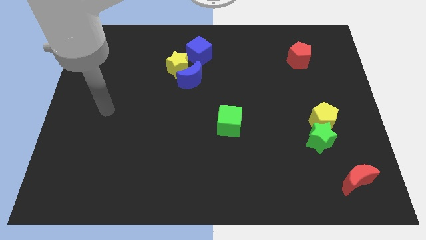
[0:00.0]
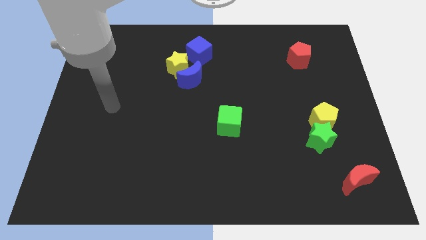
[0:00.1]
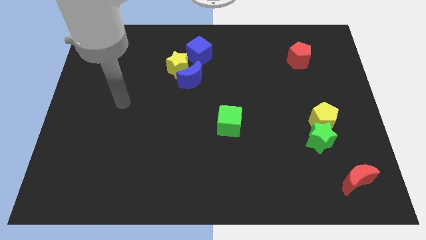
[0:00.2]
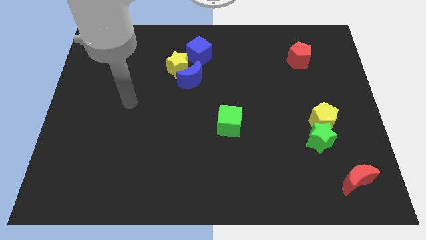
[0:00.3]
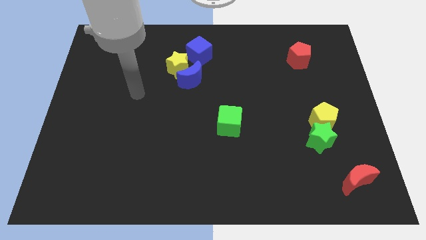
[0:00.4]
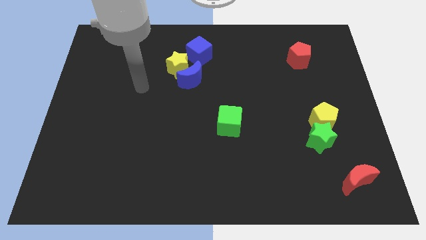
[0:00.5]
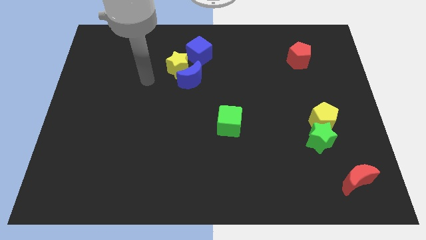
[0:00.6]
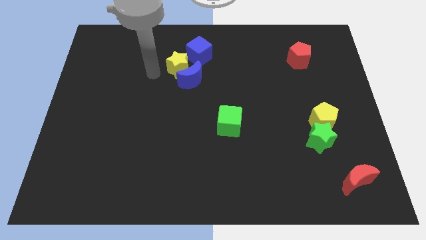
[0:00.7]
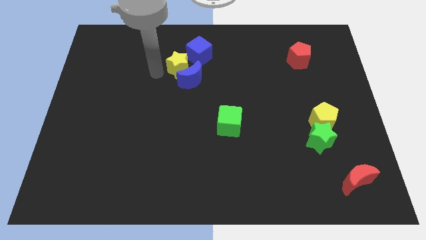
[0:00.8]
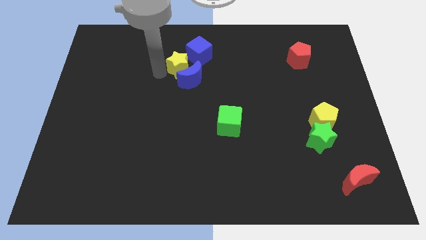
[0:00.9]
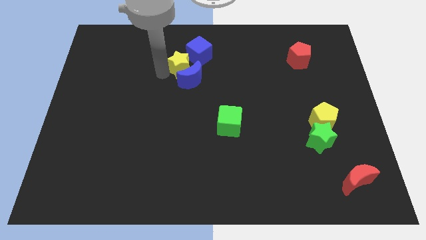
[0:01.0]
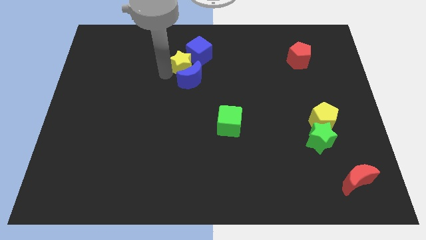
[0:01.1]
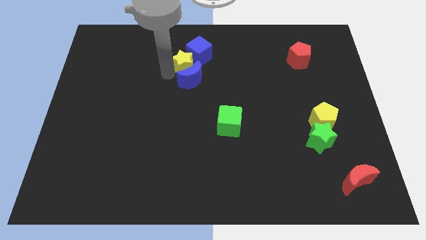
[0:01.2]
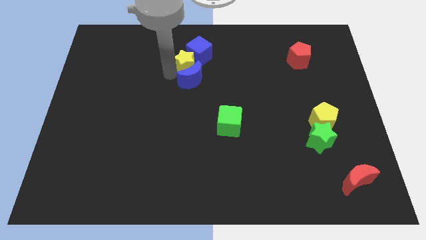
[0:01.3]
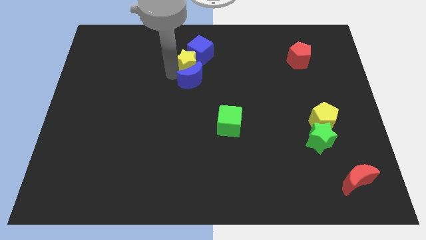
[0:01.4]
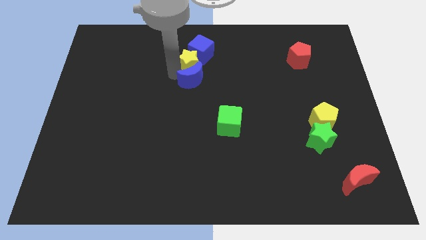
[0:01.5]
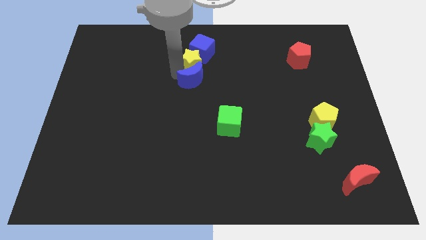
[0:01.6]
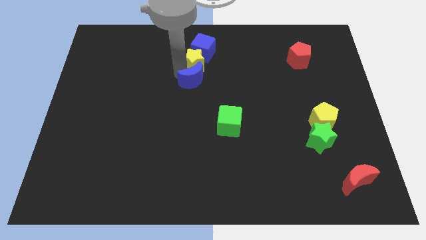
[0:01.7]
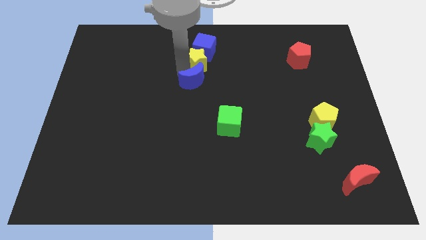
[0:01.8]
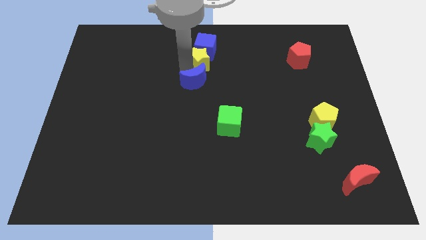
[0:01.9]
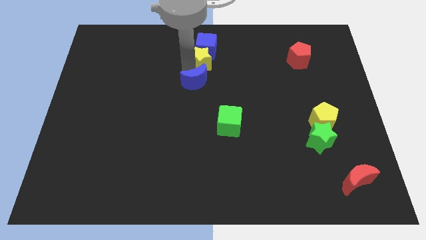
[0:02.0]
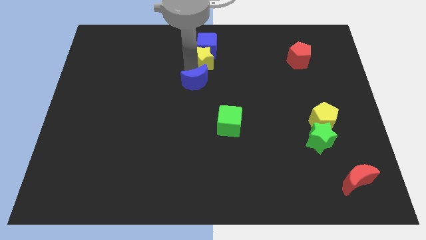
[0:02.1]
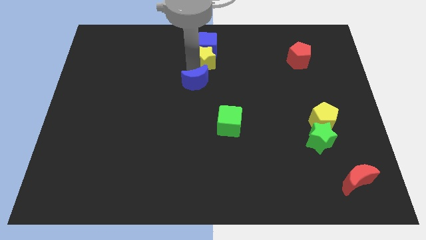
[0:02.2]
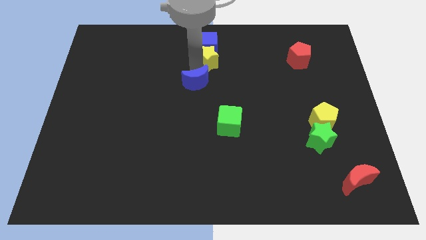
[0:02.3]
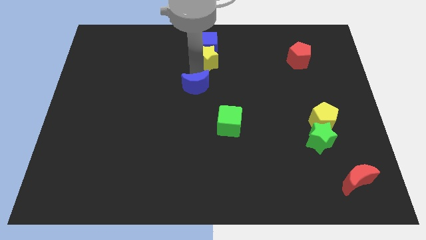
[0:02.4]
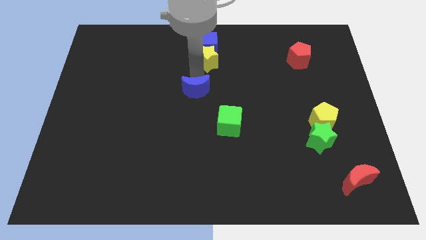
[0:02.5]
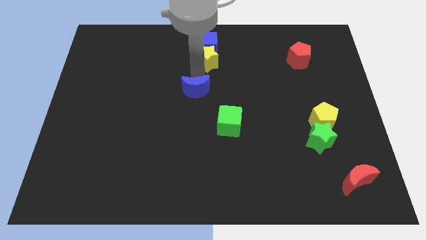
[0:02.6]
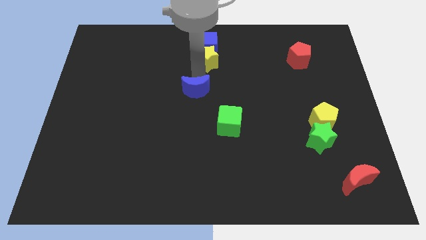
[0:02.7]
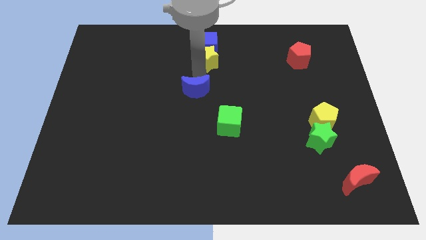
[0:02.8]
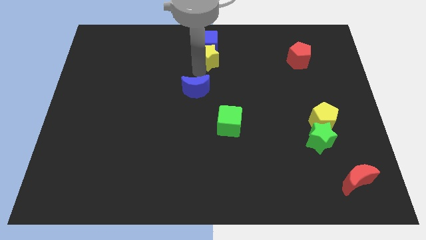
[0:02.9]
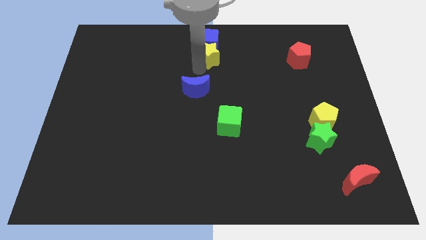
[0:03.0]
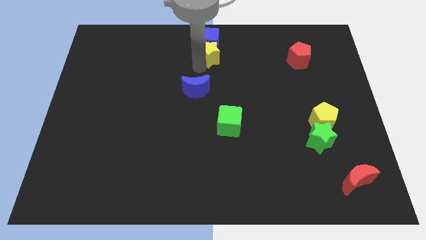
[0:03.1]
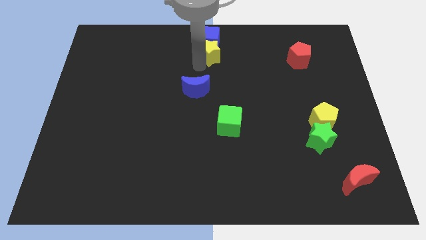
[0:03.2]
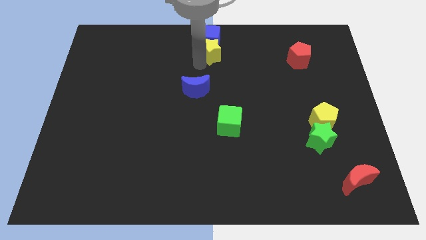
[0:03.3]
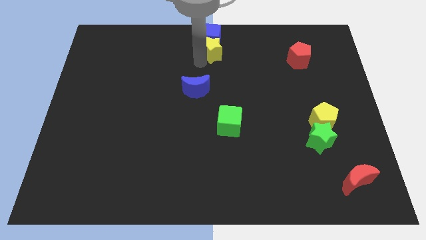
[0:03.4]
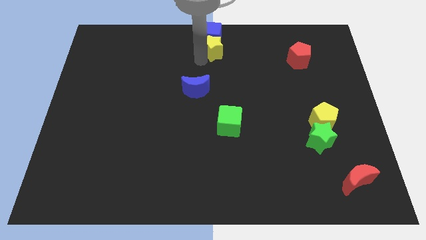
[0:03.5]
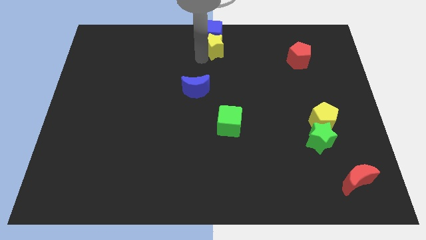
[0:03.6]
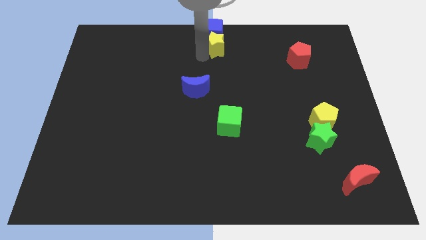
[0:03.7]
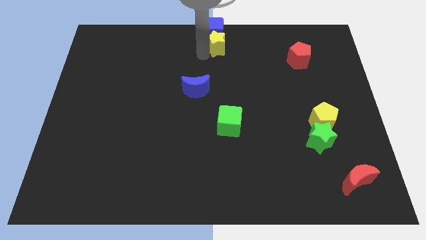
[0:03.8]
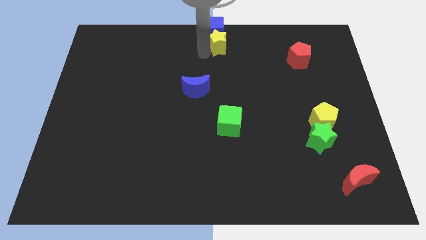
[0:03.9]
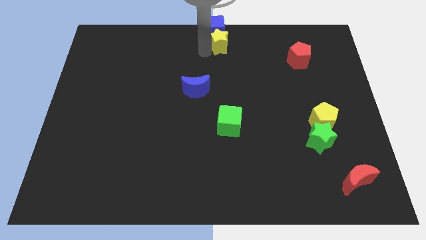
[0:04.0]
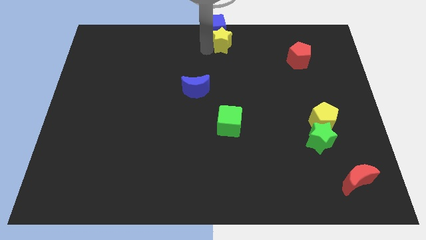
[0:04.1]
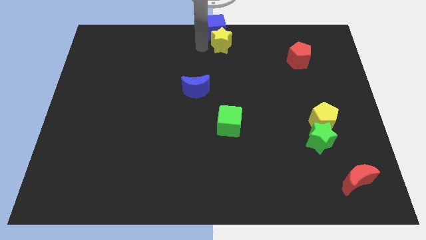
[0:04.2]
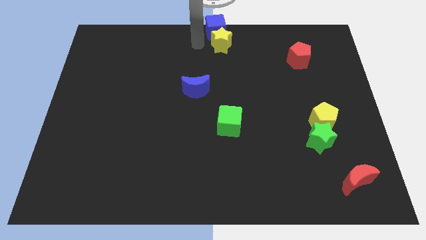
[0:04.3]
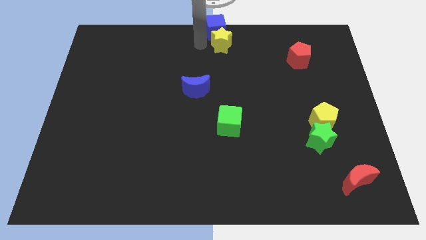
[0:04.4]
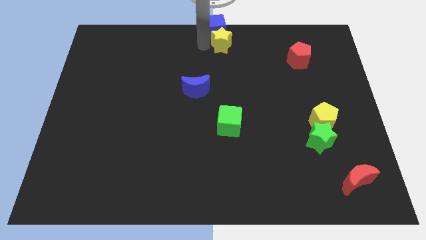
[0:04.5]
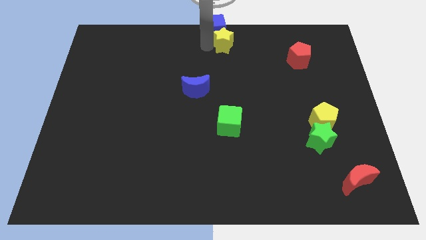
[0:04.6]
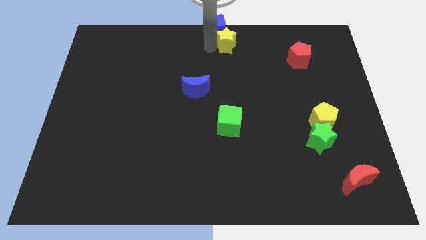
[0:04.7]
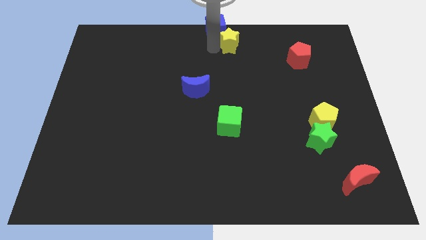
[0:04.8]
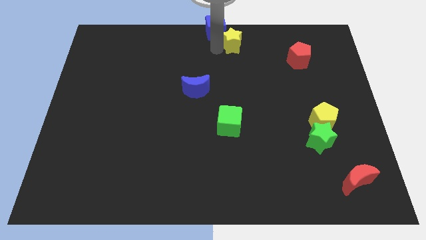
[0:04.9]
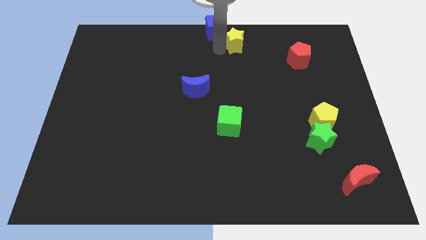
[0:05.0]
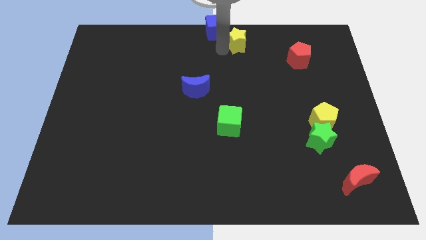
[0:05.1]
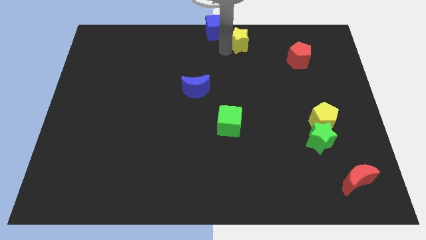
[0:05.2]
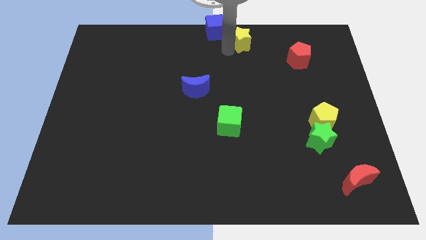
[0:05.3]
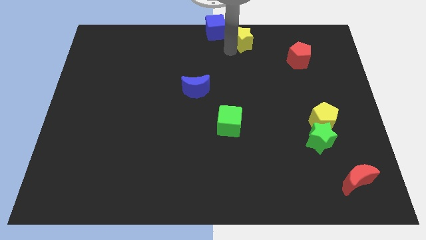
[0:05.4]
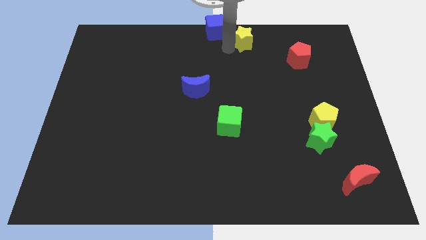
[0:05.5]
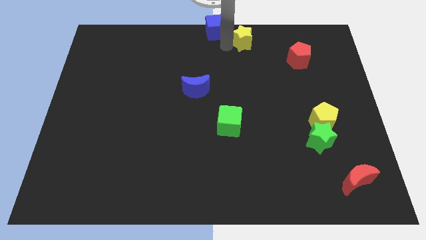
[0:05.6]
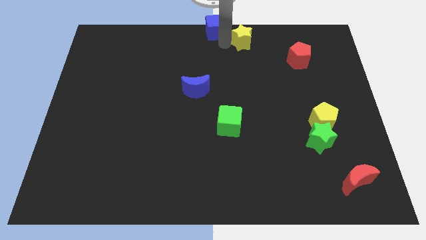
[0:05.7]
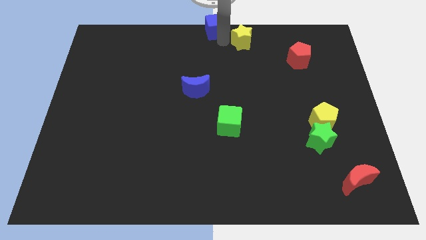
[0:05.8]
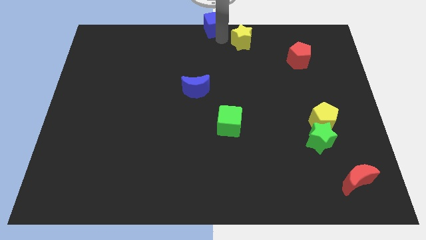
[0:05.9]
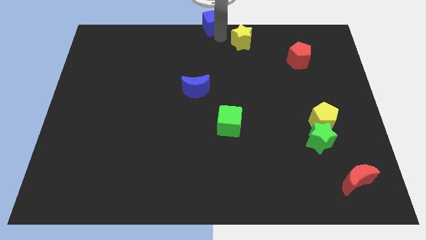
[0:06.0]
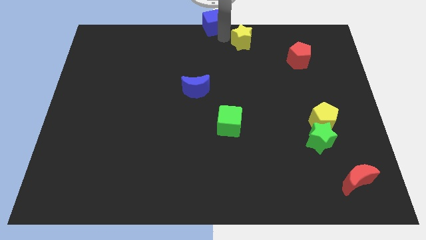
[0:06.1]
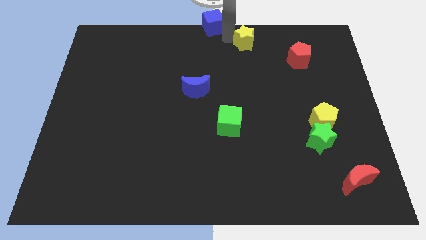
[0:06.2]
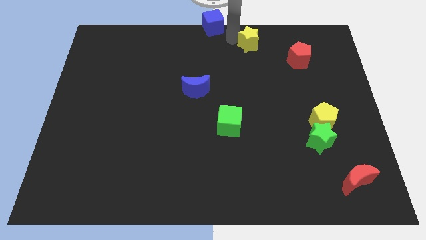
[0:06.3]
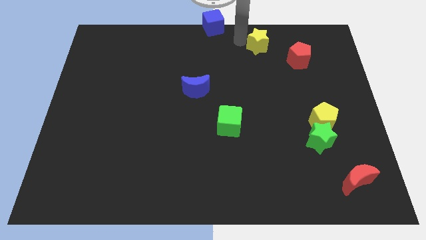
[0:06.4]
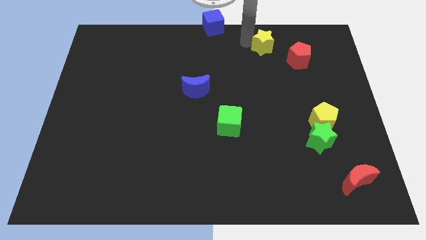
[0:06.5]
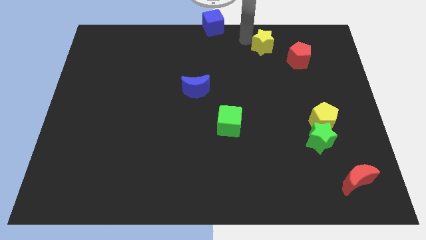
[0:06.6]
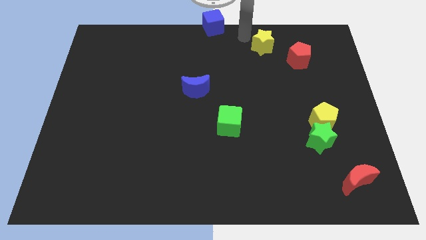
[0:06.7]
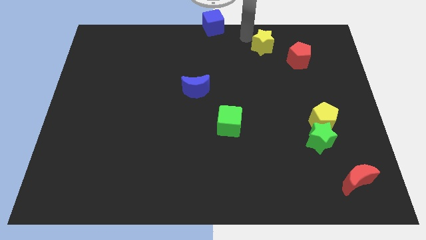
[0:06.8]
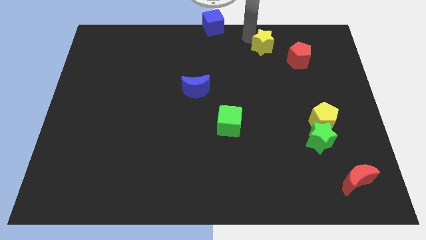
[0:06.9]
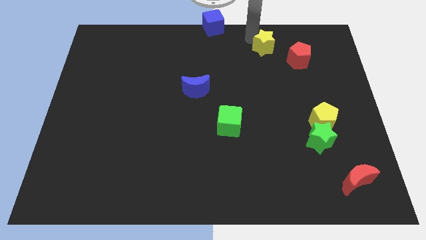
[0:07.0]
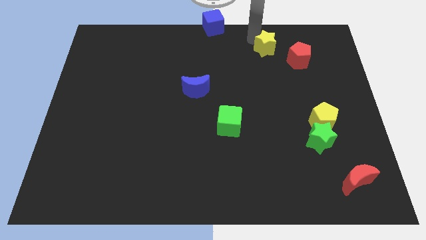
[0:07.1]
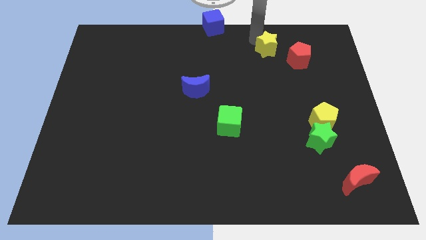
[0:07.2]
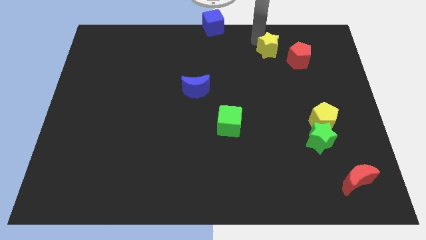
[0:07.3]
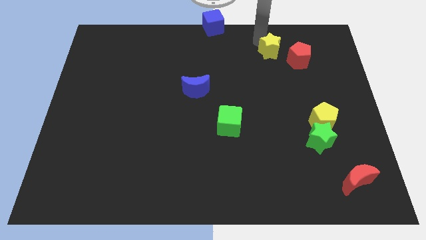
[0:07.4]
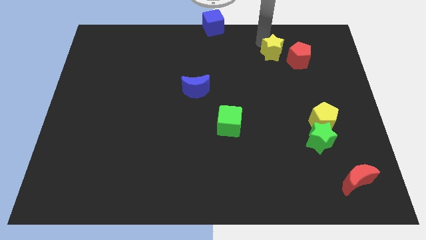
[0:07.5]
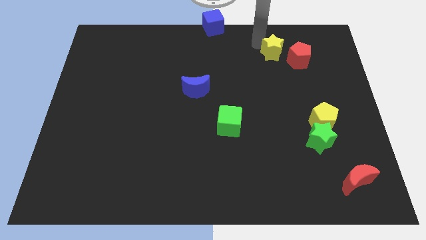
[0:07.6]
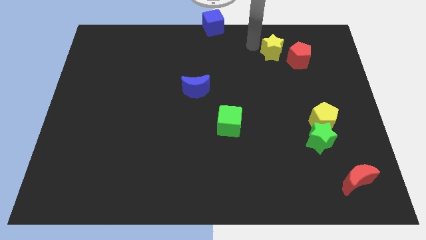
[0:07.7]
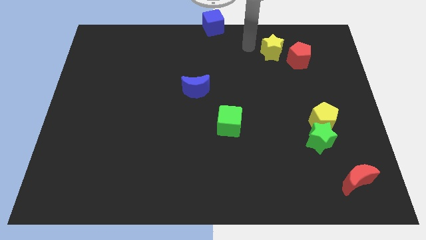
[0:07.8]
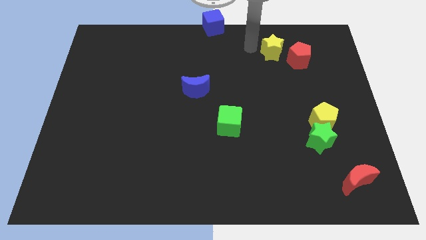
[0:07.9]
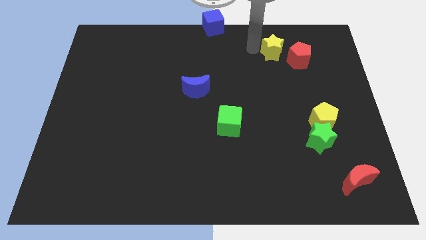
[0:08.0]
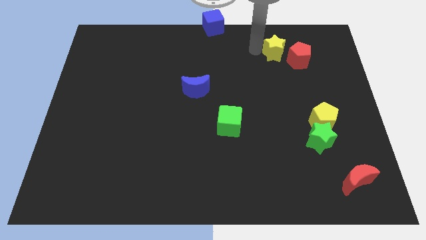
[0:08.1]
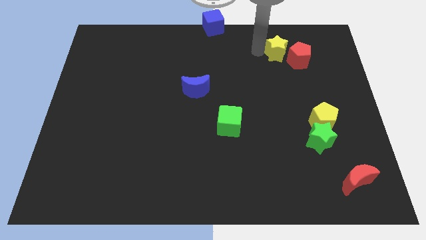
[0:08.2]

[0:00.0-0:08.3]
put the yellow star next to the red pentagon
